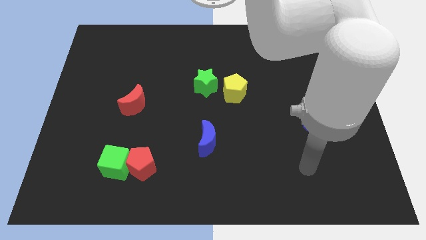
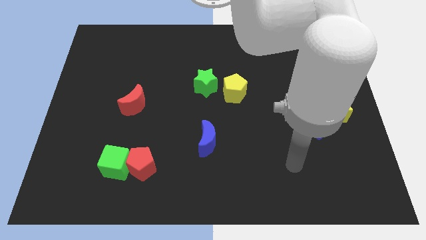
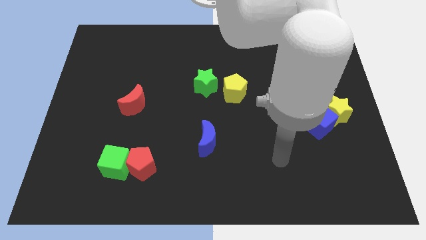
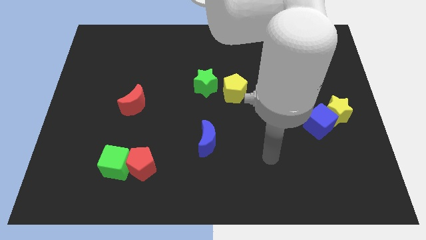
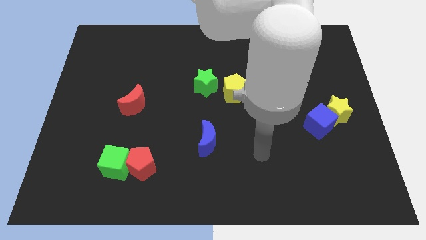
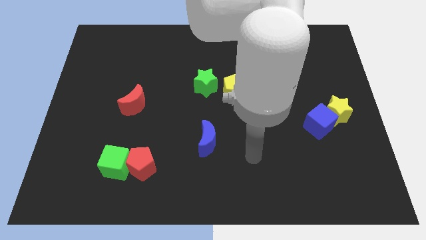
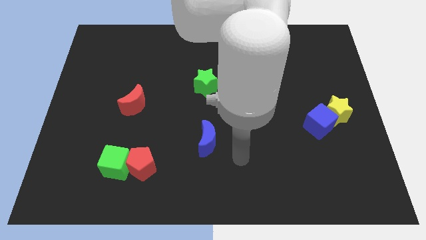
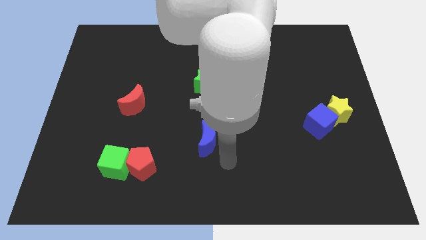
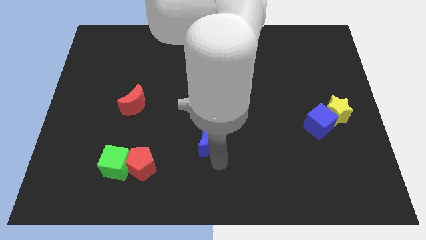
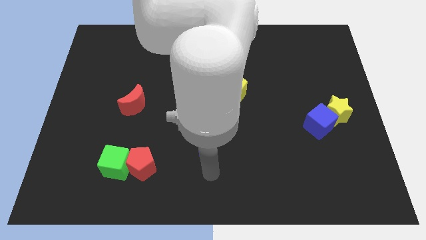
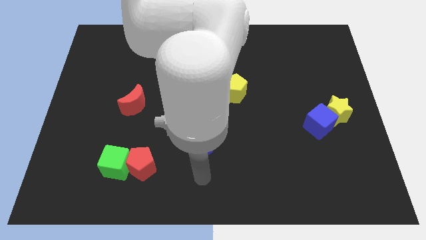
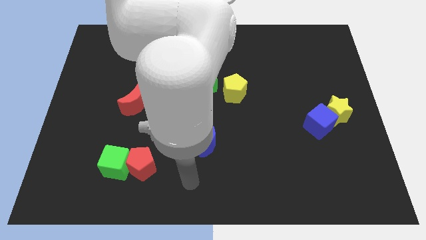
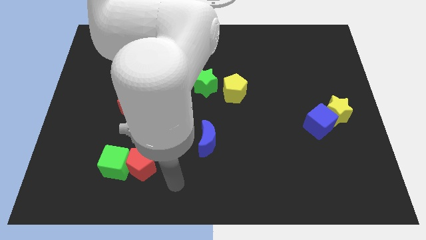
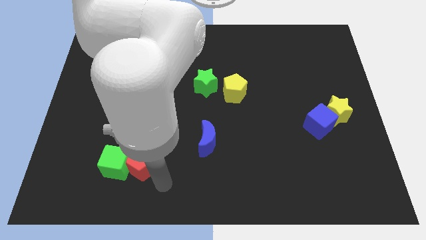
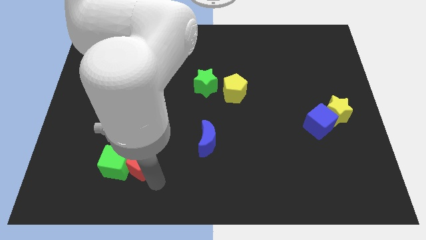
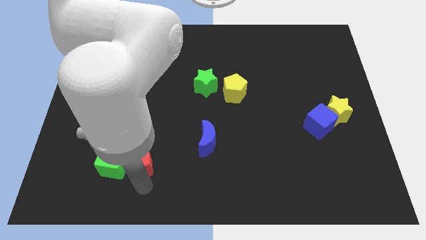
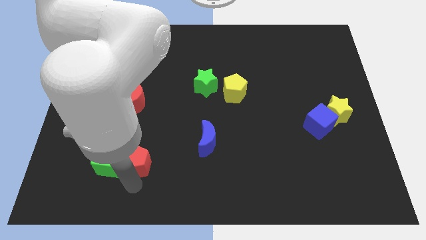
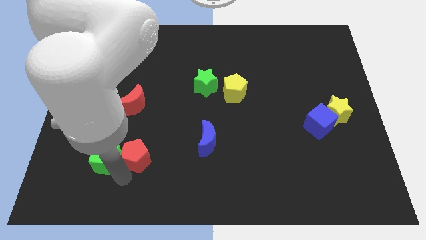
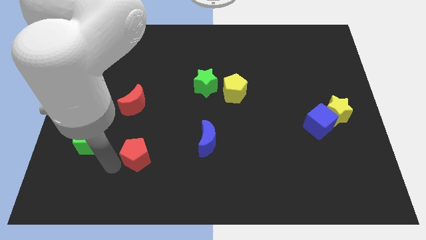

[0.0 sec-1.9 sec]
pull the red pentagon apart from the green cube

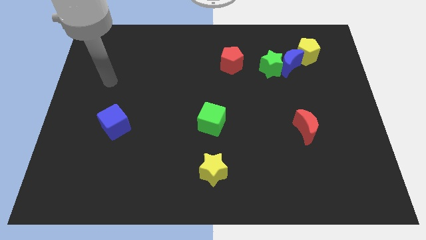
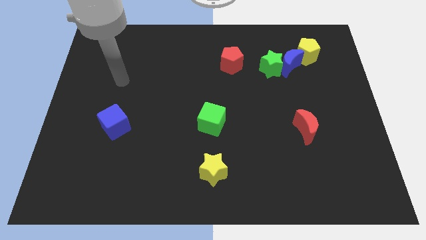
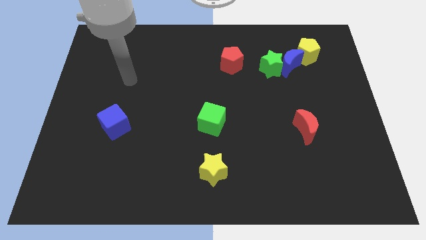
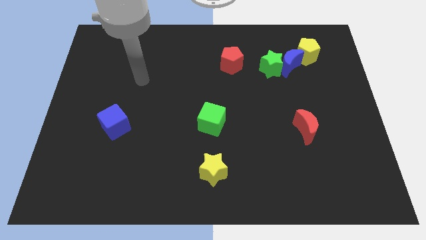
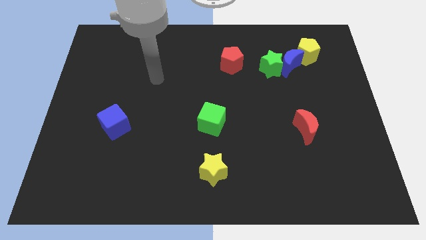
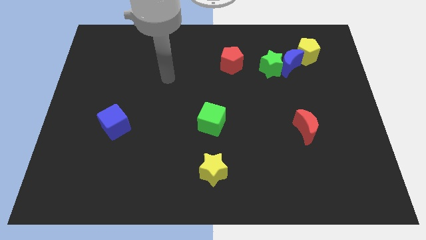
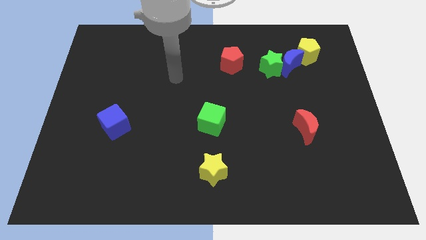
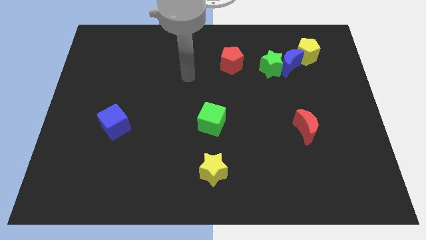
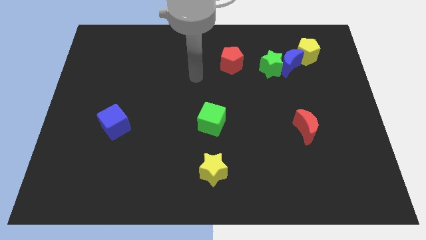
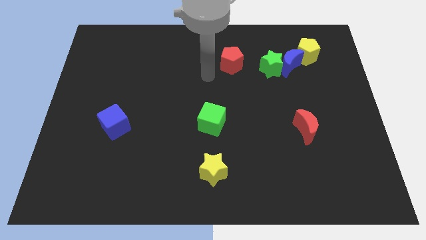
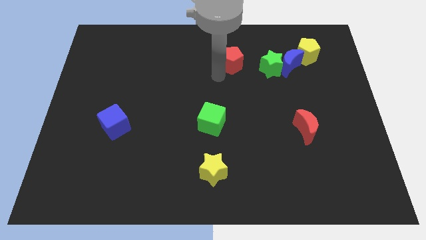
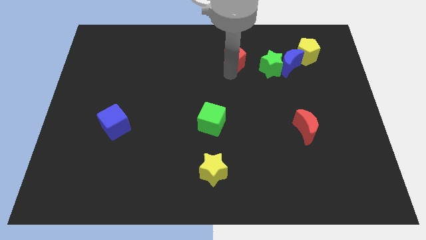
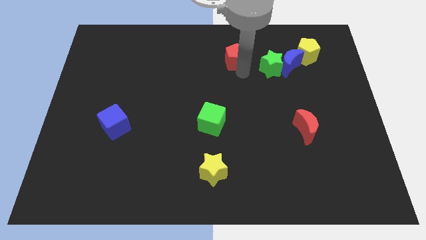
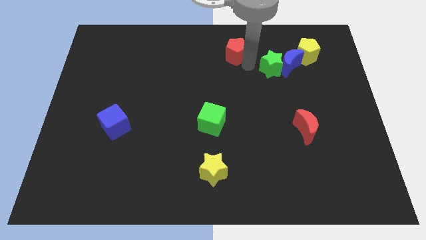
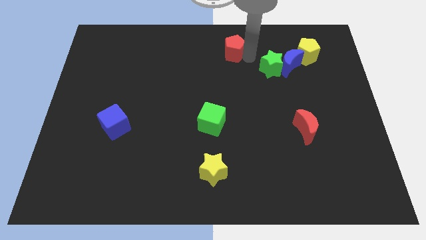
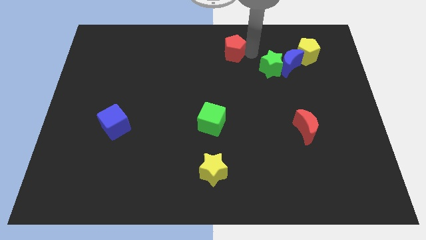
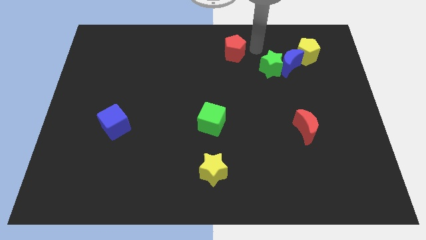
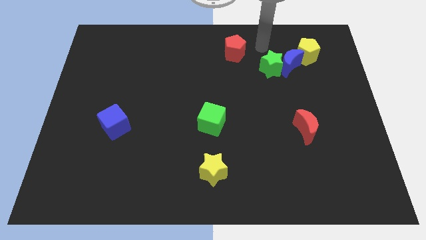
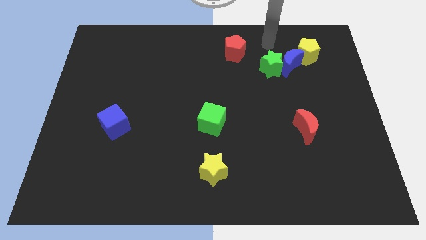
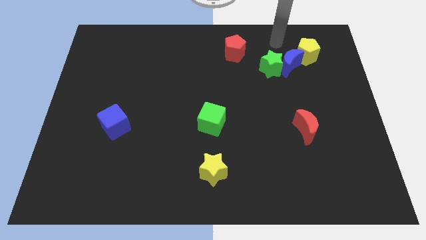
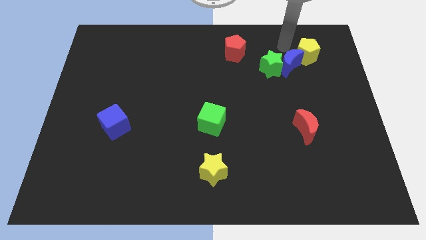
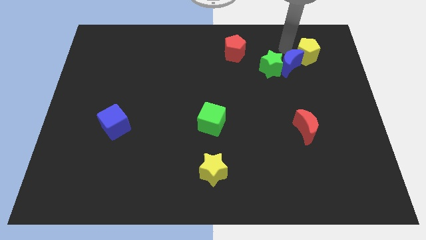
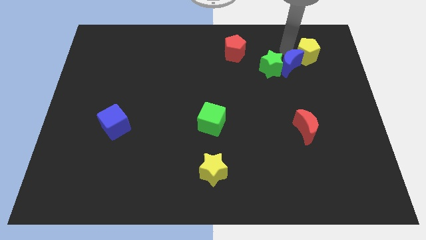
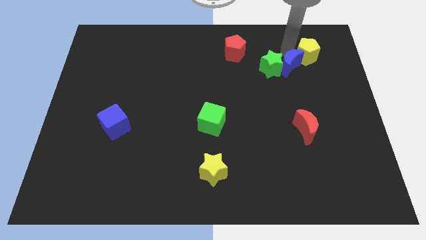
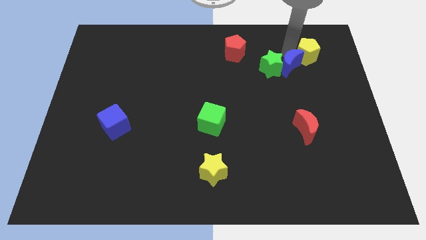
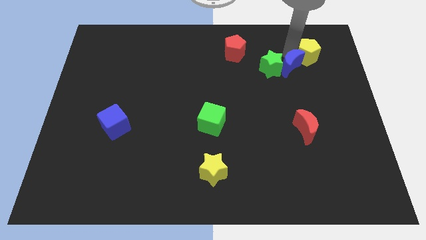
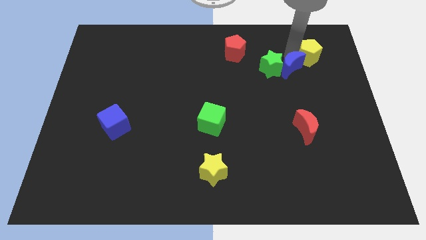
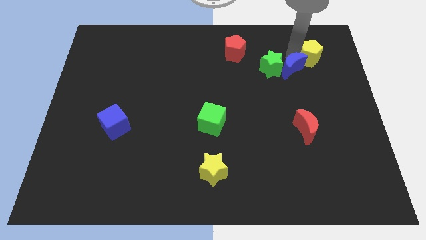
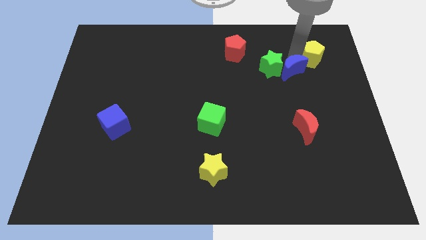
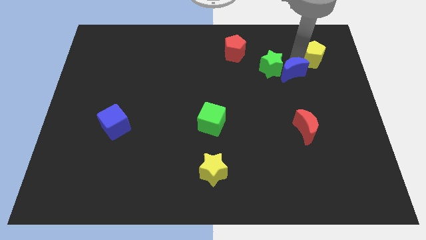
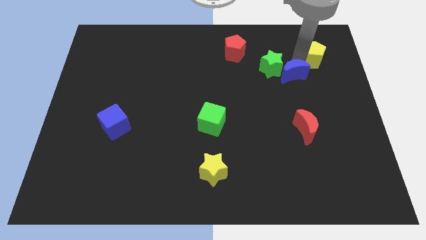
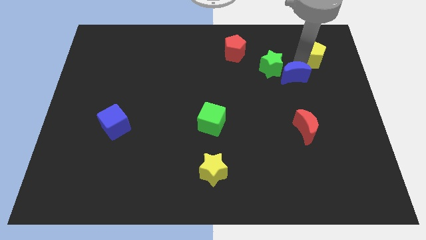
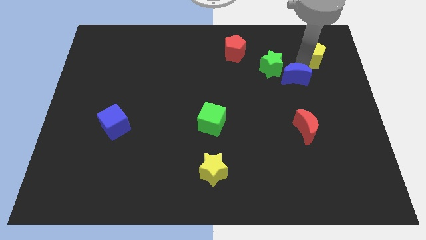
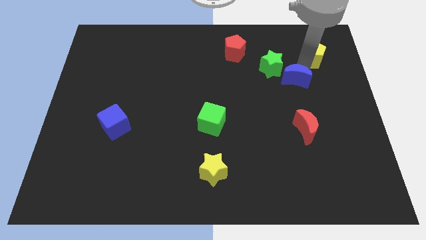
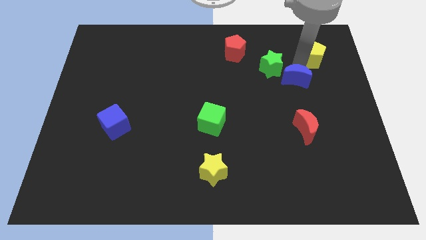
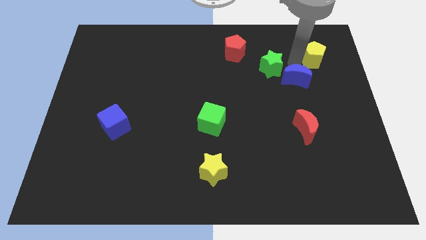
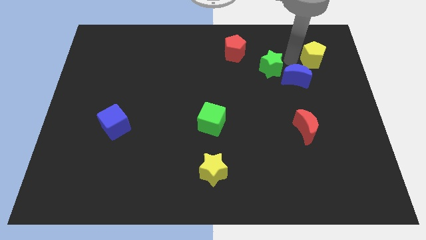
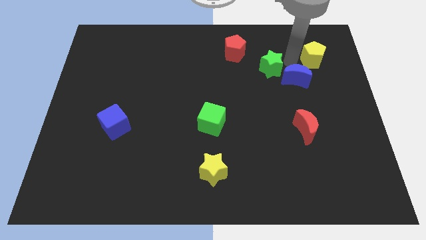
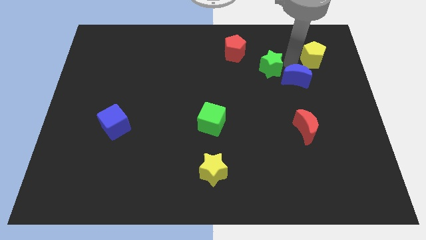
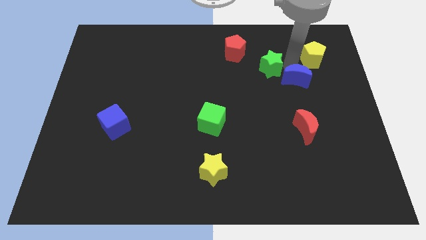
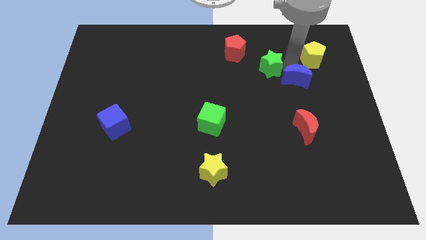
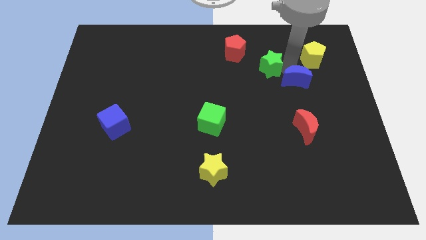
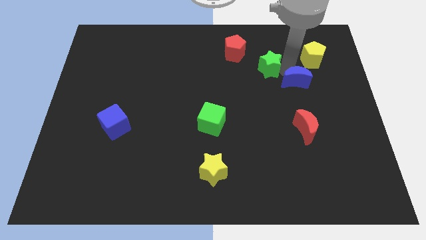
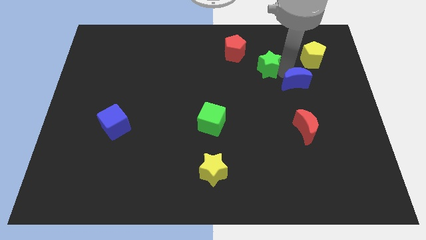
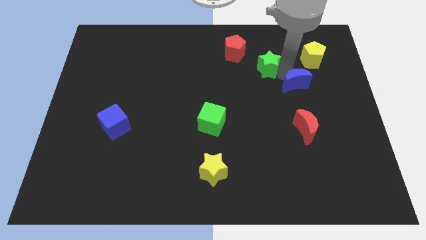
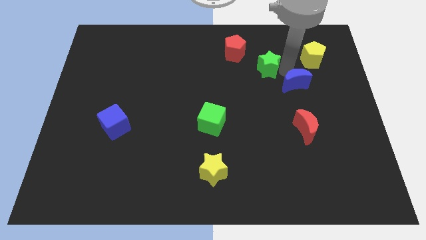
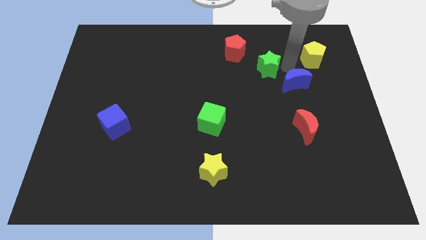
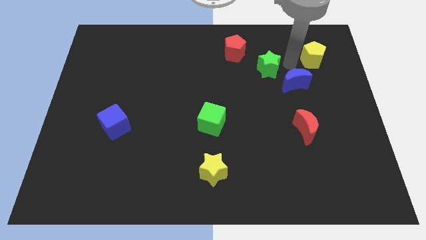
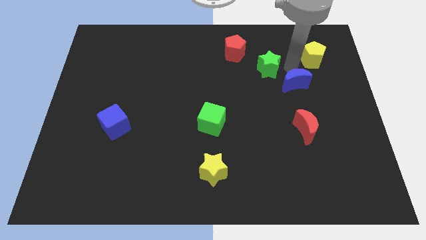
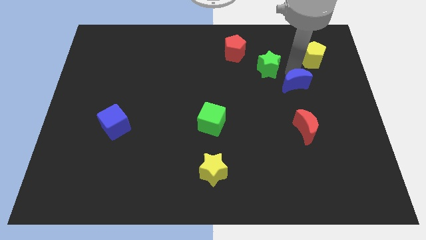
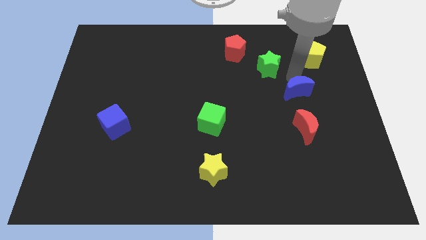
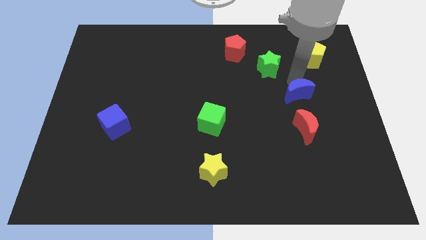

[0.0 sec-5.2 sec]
move the blue moon away from the green star and yellow pentagon

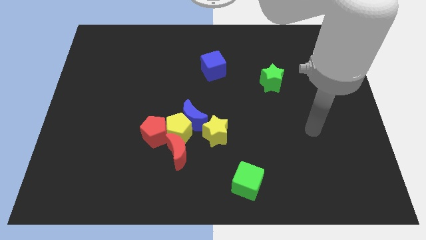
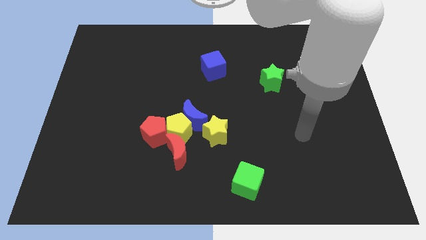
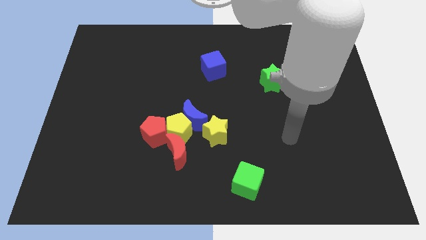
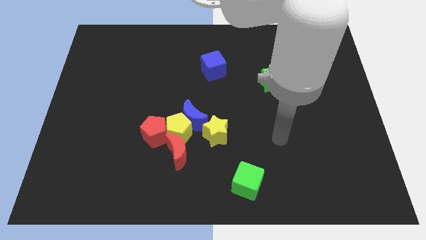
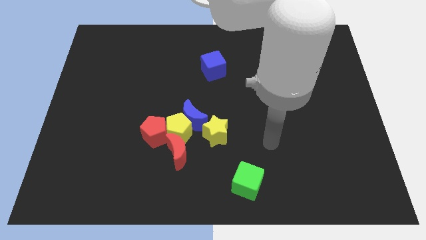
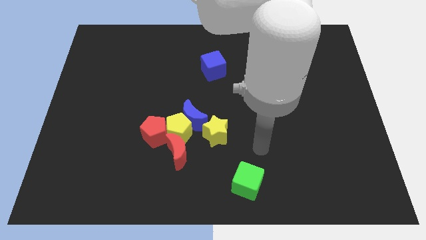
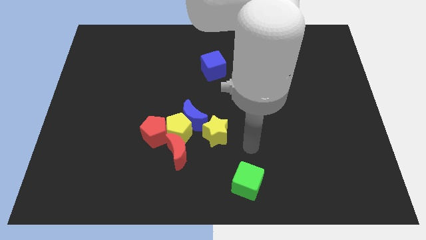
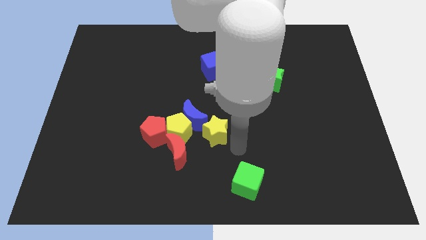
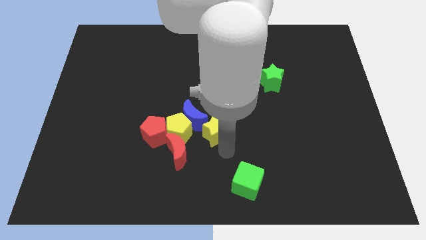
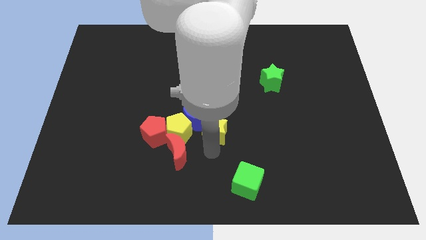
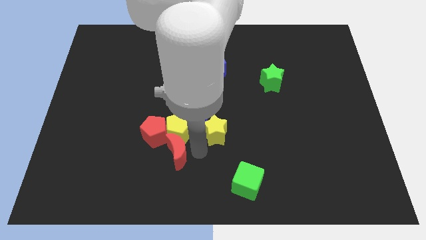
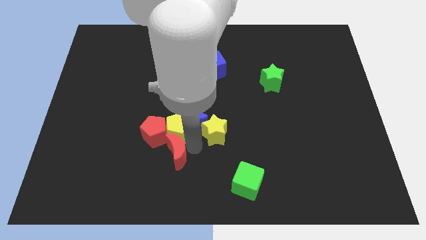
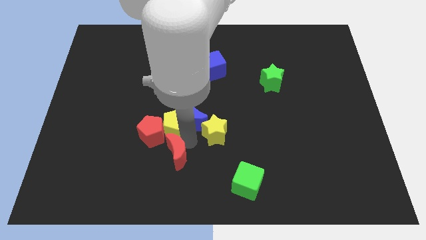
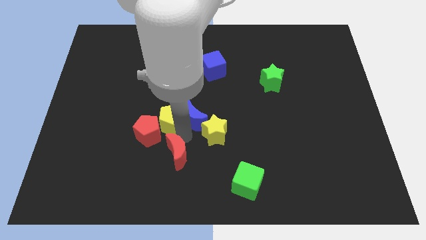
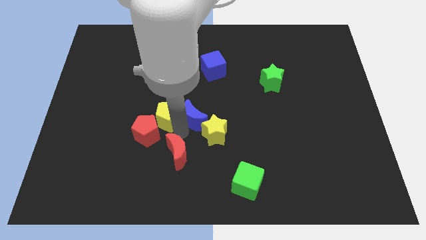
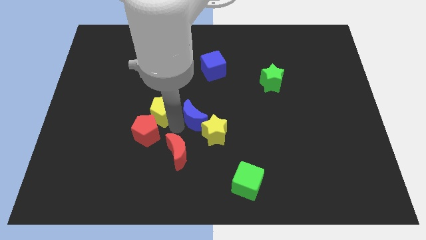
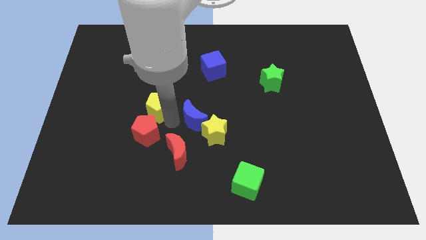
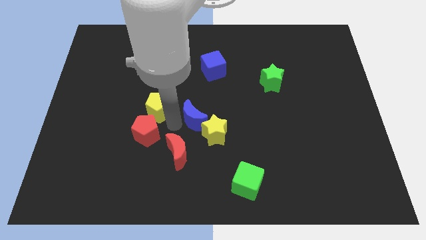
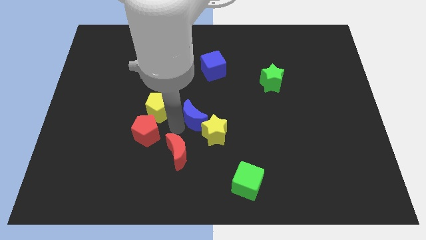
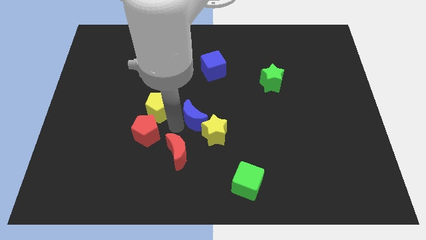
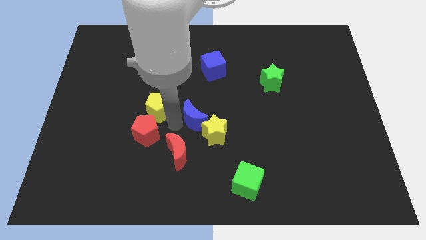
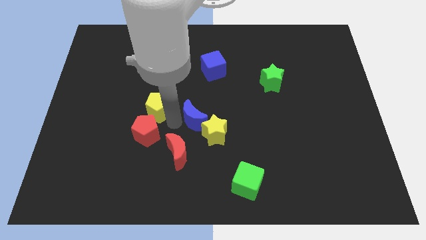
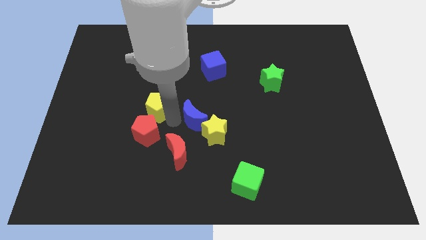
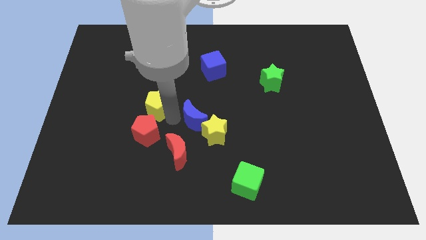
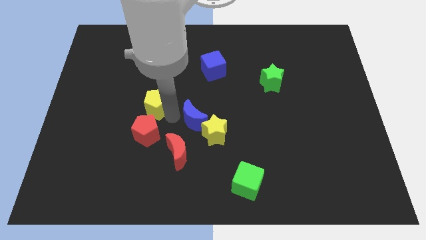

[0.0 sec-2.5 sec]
pull the yellow pentagon apart from the group
